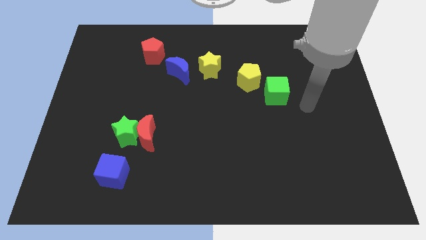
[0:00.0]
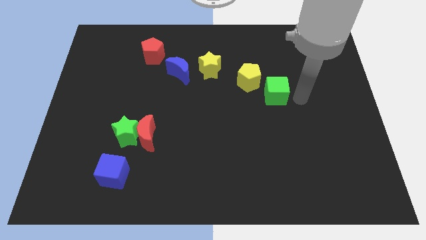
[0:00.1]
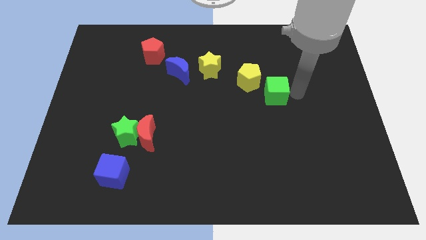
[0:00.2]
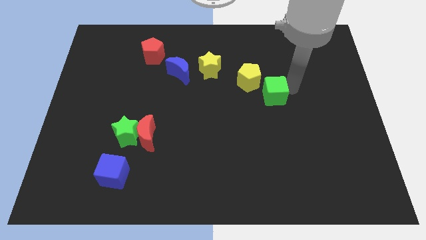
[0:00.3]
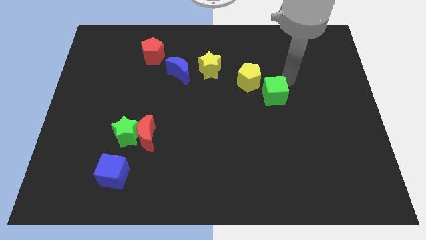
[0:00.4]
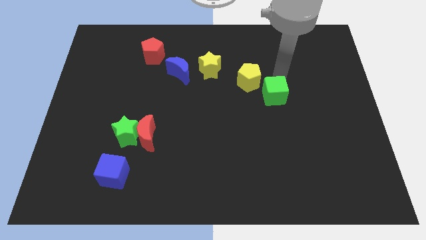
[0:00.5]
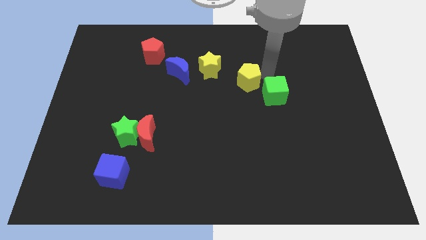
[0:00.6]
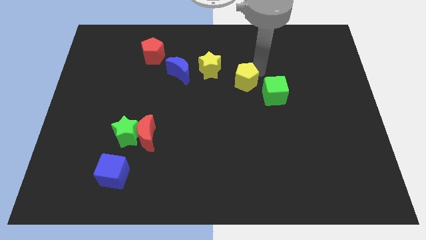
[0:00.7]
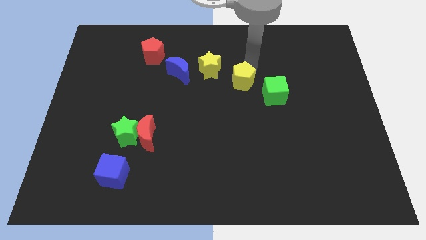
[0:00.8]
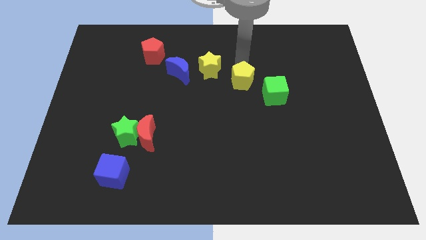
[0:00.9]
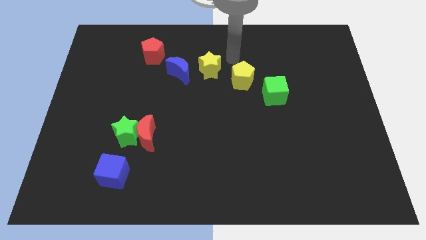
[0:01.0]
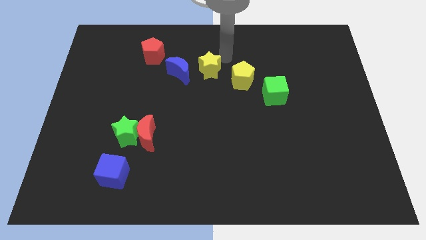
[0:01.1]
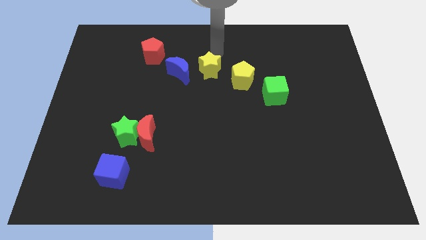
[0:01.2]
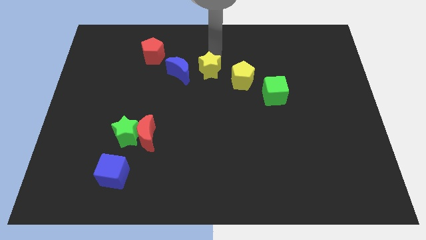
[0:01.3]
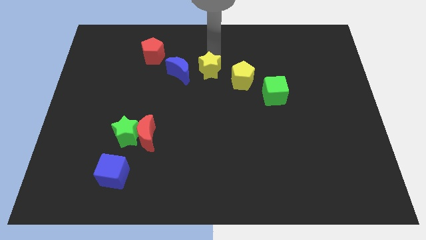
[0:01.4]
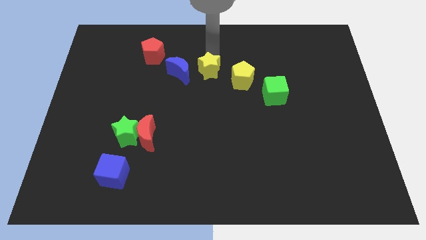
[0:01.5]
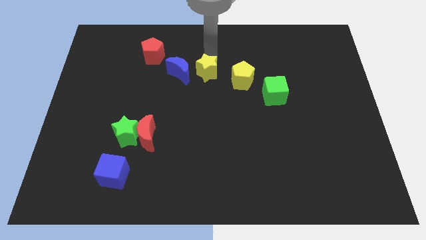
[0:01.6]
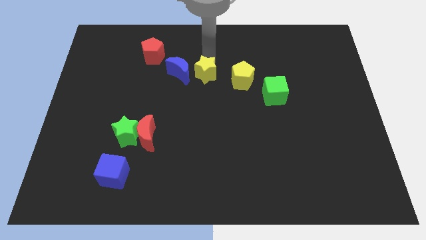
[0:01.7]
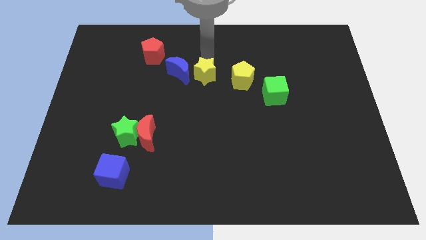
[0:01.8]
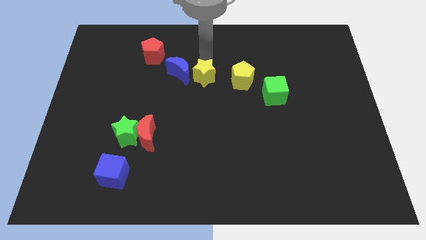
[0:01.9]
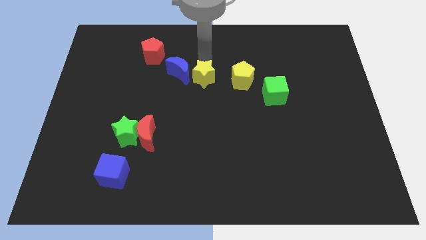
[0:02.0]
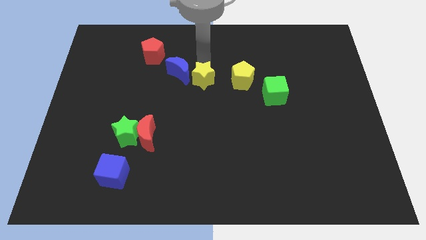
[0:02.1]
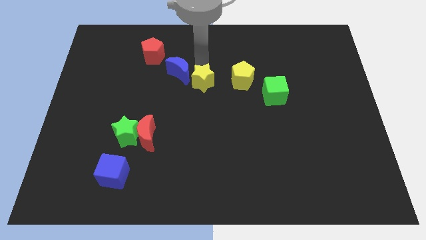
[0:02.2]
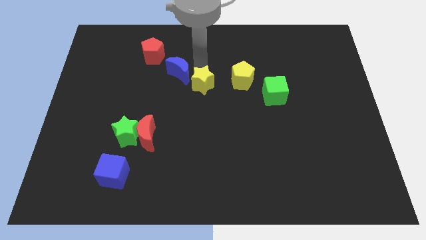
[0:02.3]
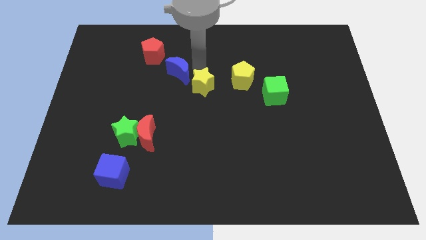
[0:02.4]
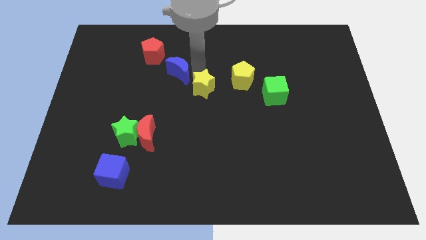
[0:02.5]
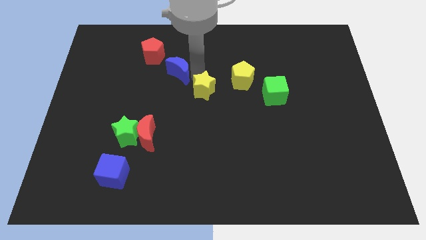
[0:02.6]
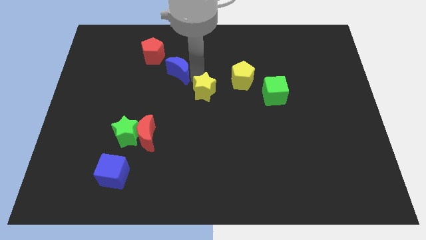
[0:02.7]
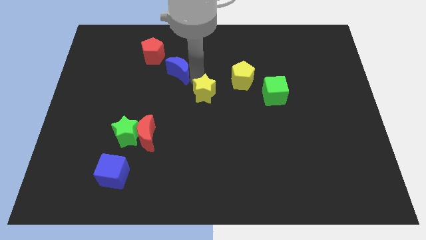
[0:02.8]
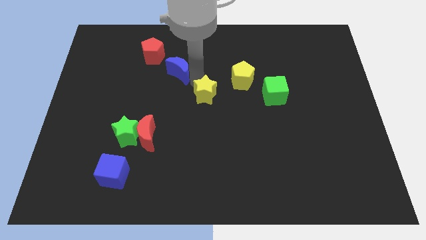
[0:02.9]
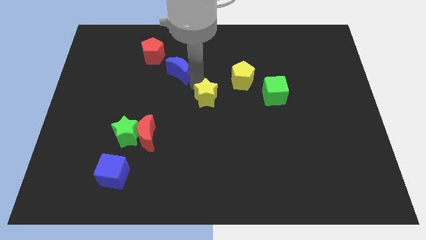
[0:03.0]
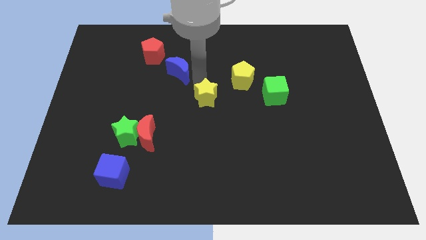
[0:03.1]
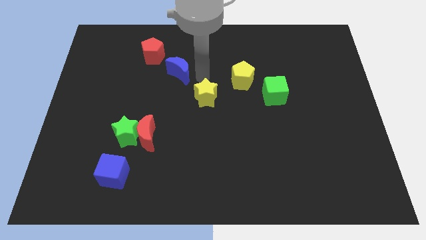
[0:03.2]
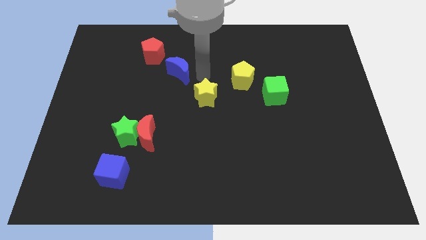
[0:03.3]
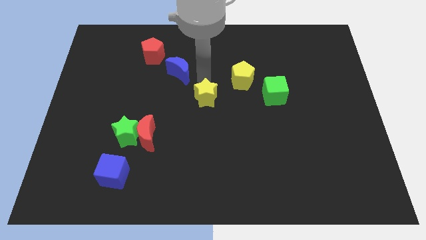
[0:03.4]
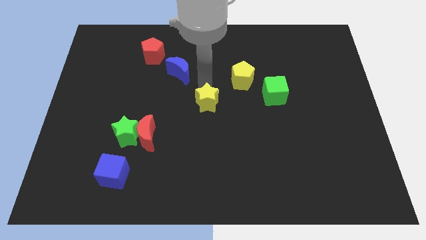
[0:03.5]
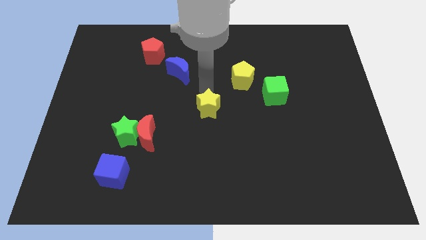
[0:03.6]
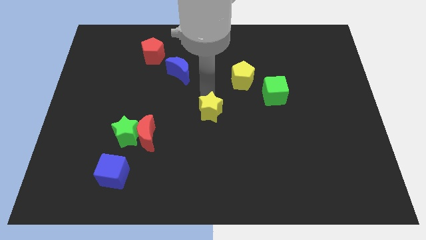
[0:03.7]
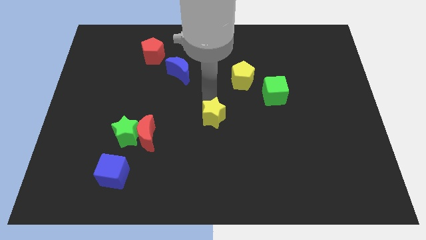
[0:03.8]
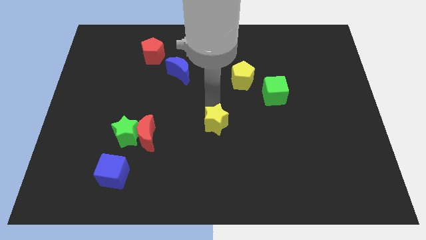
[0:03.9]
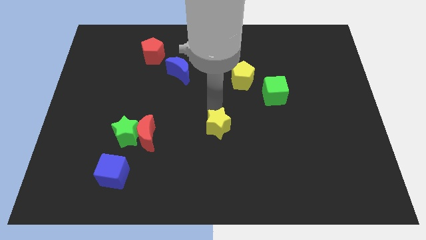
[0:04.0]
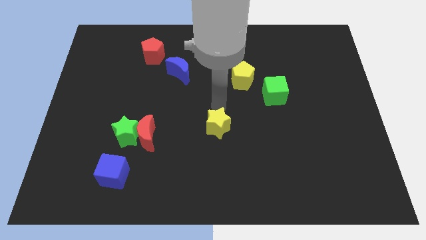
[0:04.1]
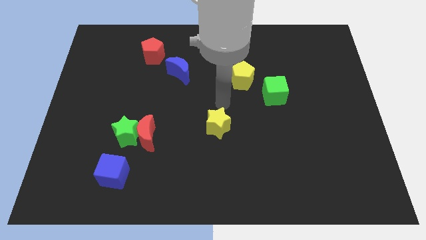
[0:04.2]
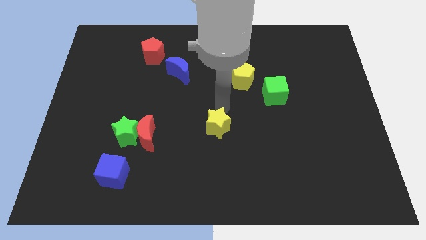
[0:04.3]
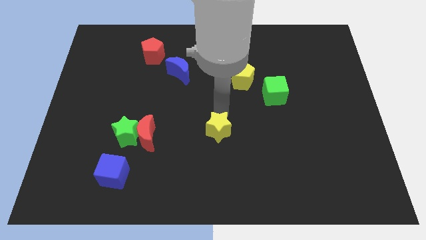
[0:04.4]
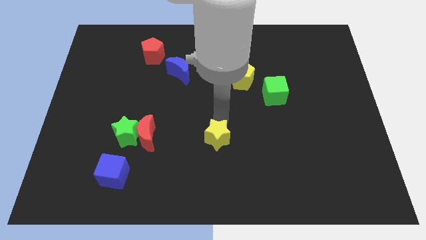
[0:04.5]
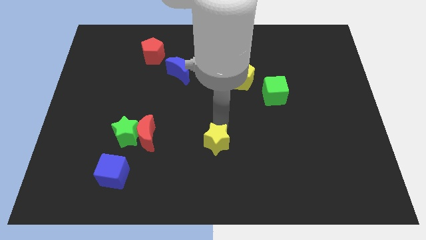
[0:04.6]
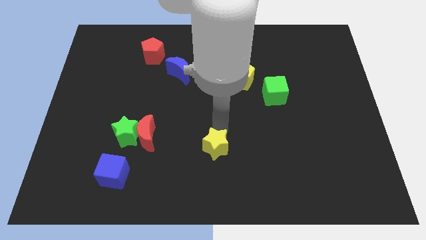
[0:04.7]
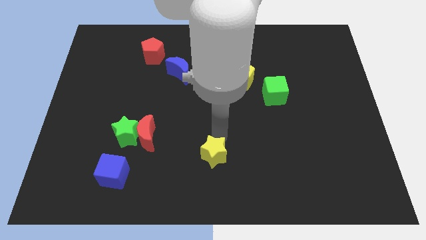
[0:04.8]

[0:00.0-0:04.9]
push the yellow star to the bottom side

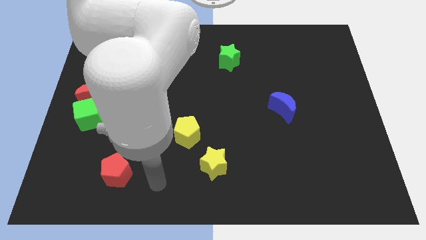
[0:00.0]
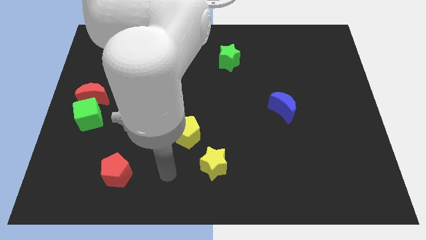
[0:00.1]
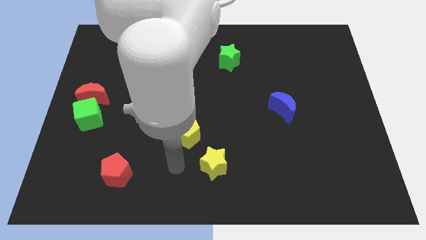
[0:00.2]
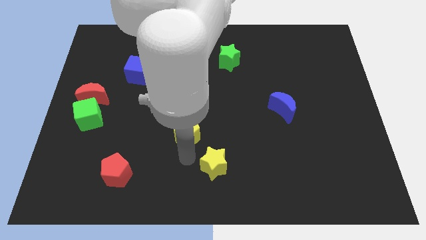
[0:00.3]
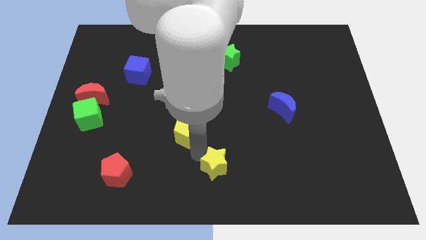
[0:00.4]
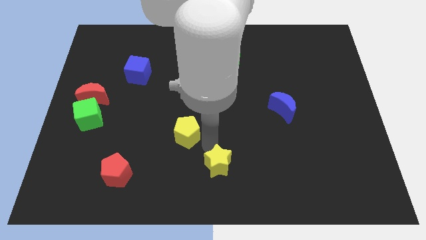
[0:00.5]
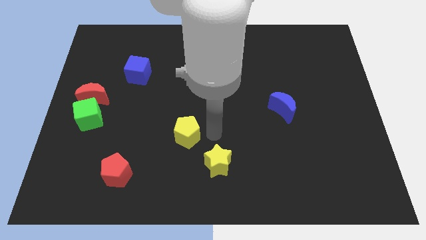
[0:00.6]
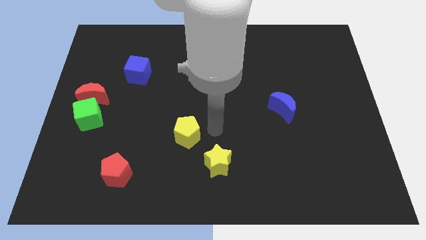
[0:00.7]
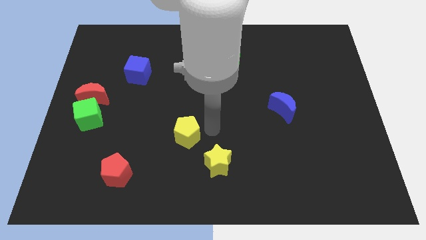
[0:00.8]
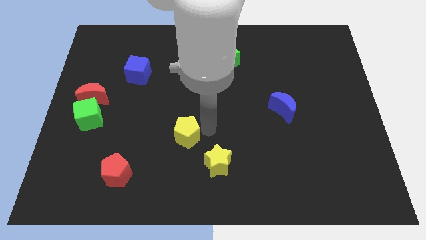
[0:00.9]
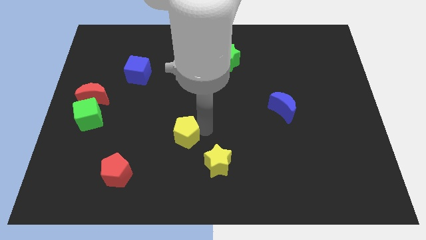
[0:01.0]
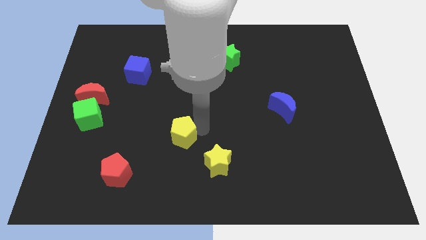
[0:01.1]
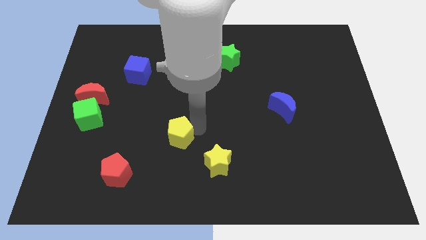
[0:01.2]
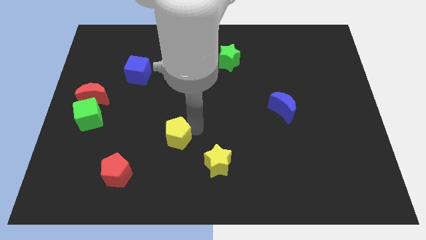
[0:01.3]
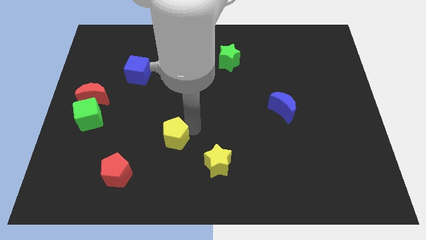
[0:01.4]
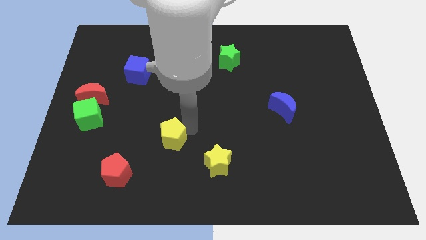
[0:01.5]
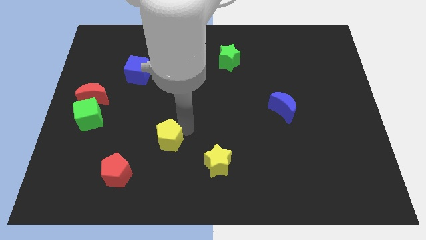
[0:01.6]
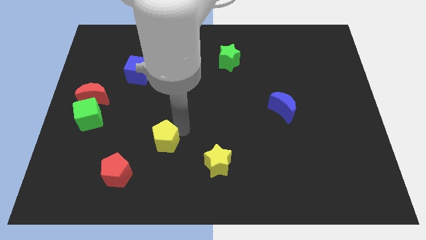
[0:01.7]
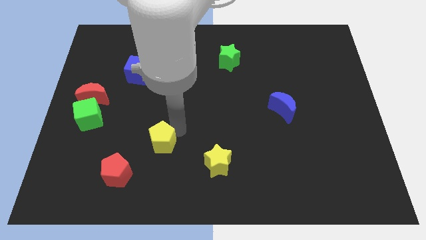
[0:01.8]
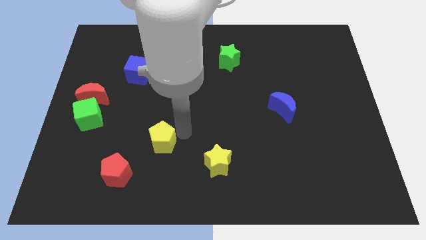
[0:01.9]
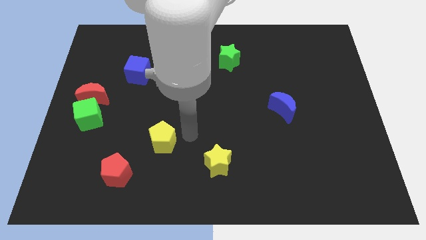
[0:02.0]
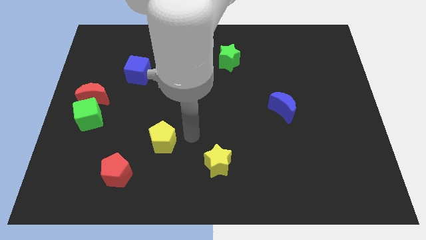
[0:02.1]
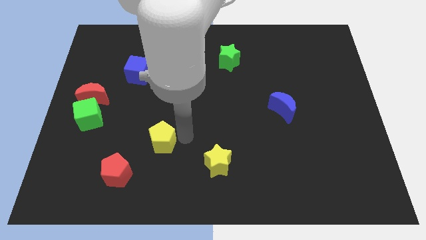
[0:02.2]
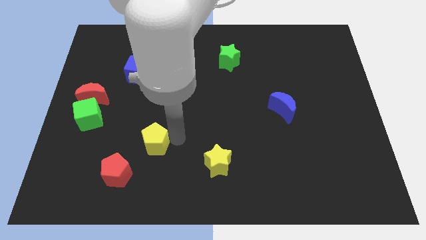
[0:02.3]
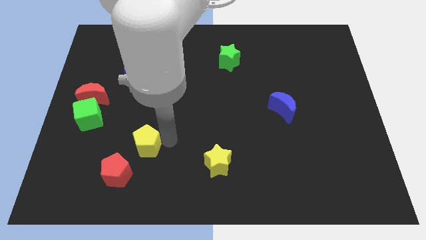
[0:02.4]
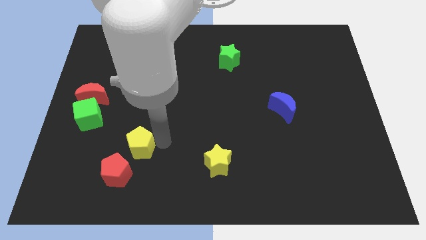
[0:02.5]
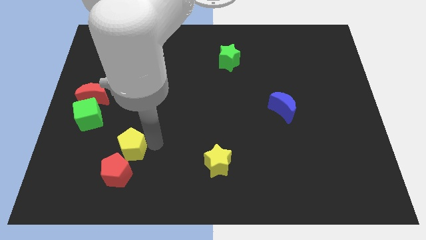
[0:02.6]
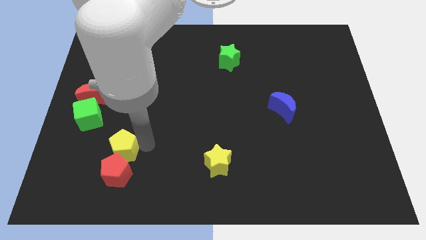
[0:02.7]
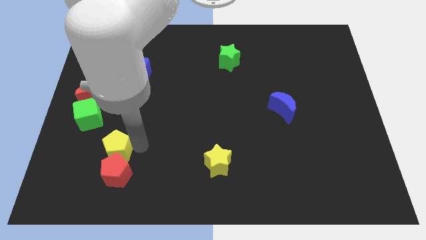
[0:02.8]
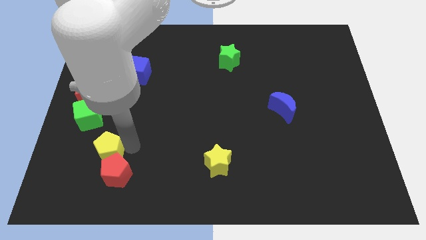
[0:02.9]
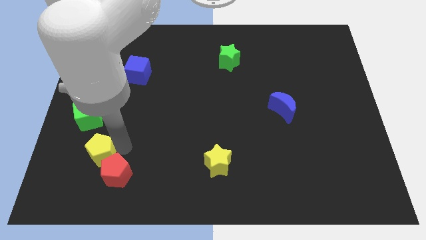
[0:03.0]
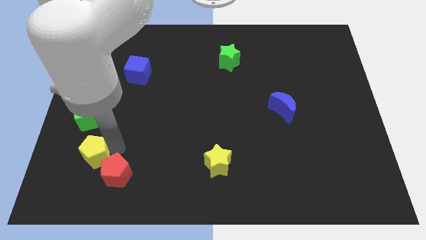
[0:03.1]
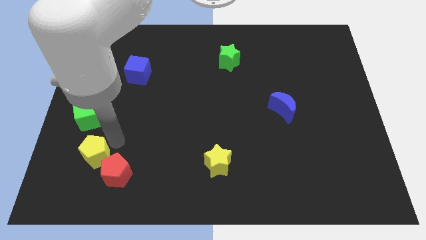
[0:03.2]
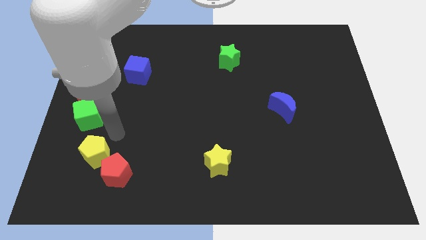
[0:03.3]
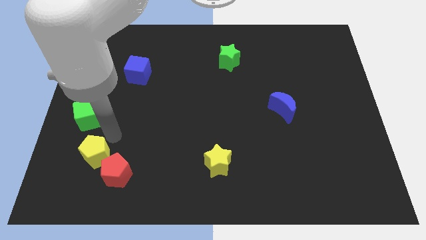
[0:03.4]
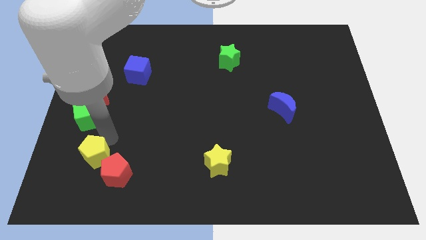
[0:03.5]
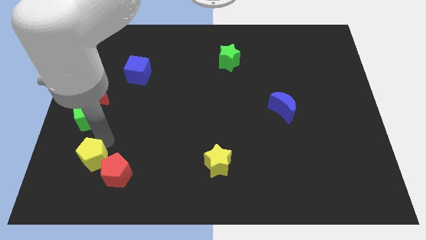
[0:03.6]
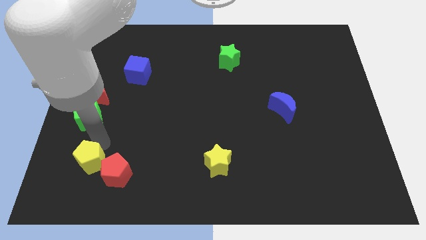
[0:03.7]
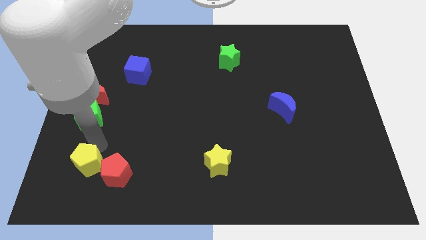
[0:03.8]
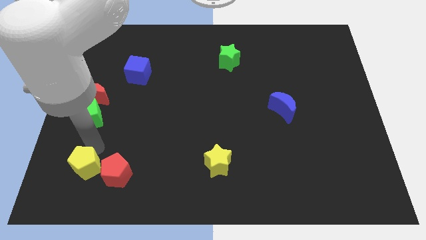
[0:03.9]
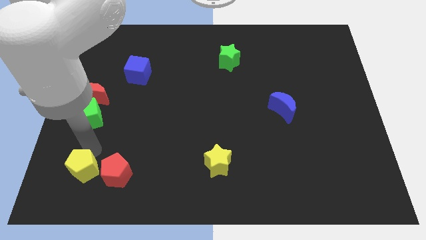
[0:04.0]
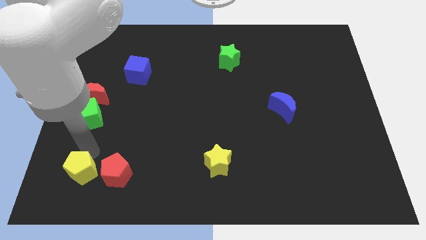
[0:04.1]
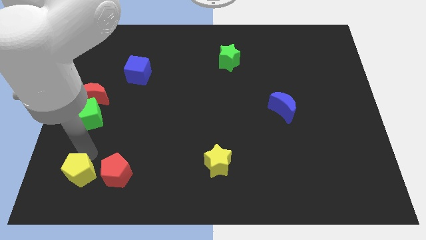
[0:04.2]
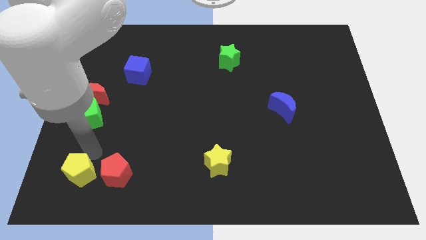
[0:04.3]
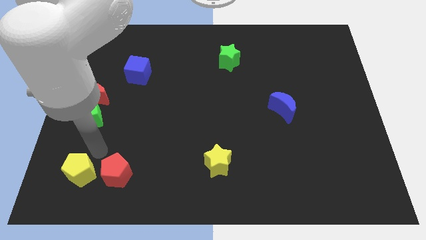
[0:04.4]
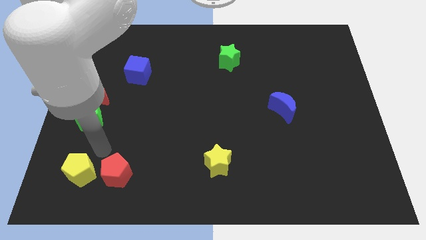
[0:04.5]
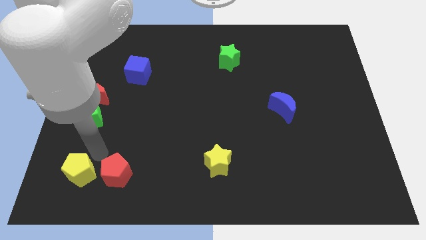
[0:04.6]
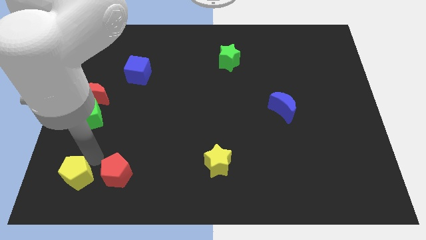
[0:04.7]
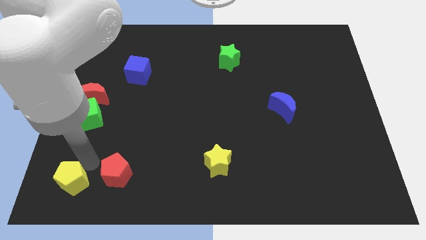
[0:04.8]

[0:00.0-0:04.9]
put the yellow pentagon to the bottom left of the board
